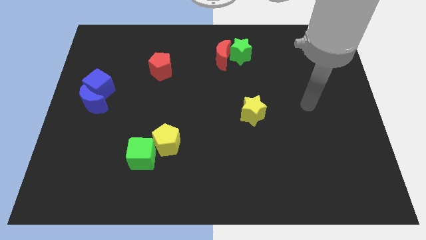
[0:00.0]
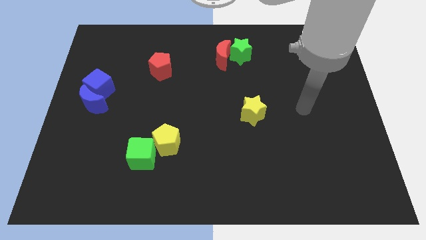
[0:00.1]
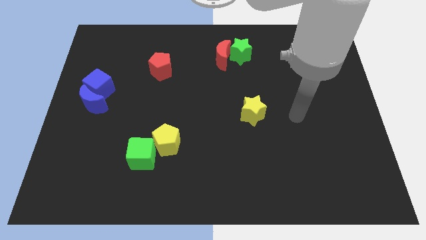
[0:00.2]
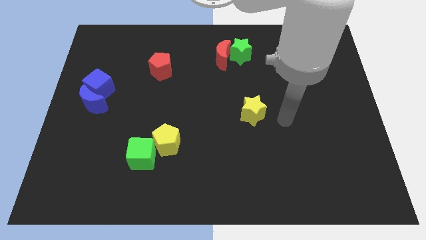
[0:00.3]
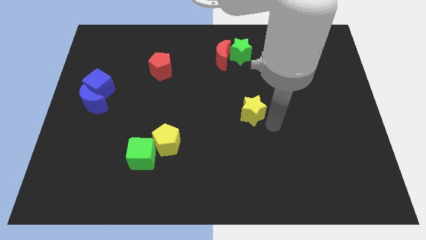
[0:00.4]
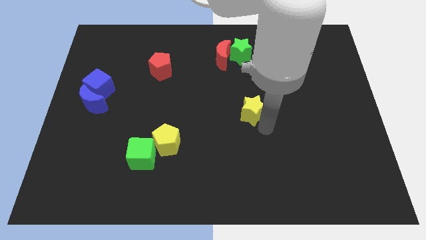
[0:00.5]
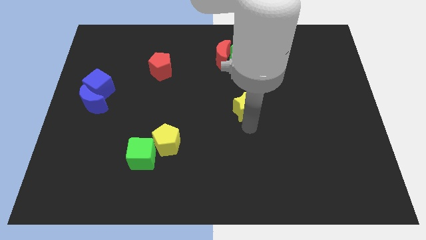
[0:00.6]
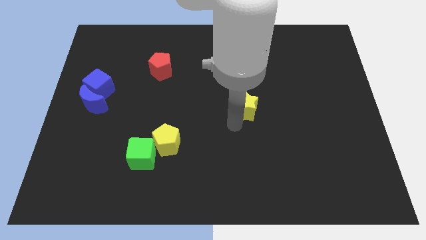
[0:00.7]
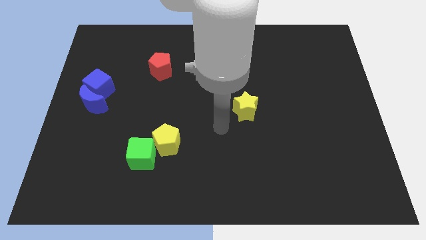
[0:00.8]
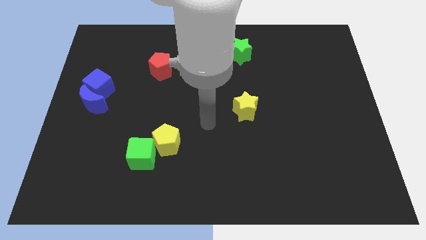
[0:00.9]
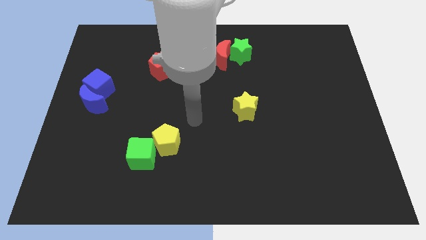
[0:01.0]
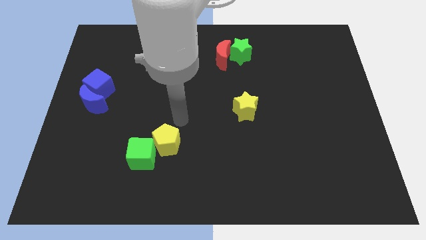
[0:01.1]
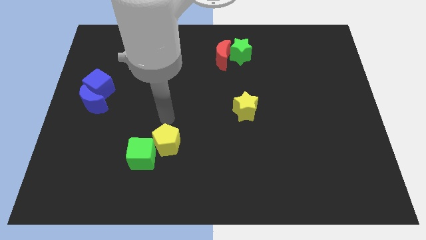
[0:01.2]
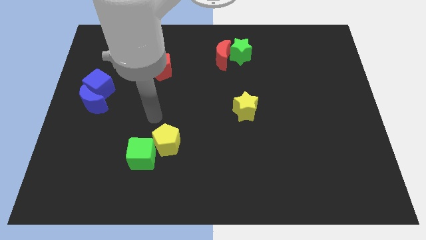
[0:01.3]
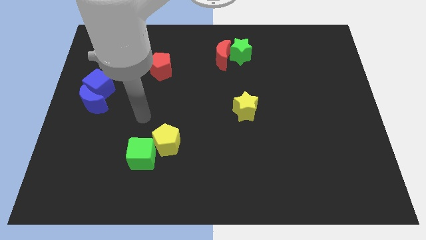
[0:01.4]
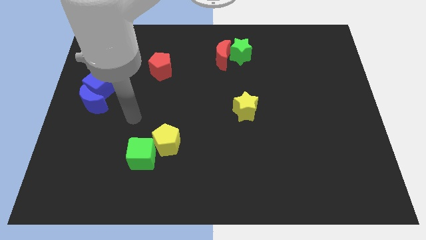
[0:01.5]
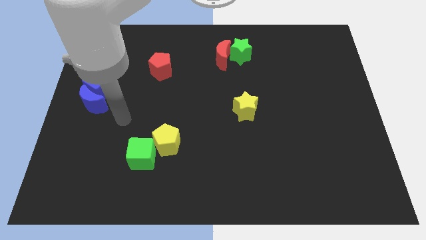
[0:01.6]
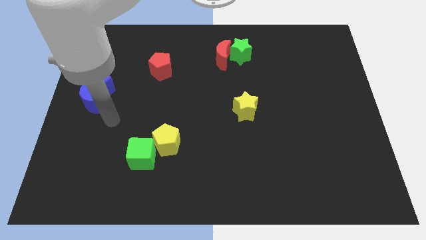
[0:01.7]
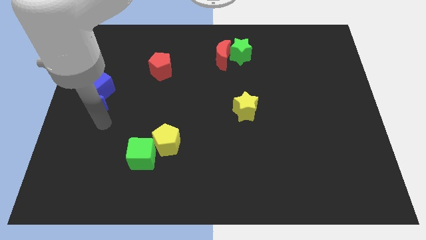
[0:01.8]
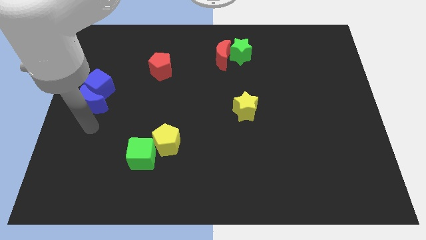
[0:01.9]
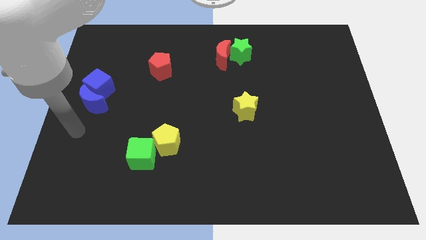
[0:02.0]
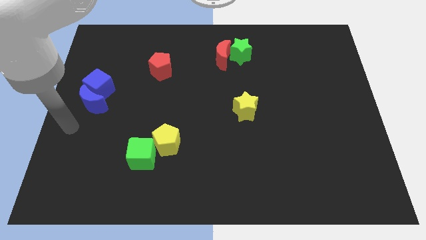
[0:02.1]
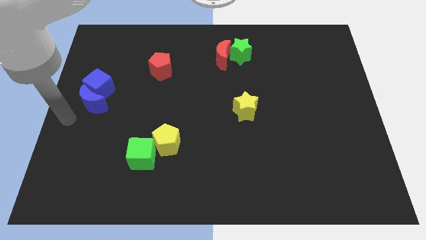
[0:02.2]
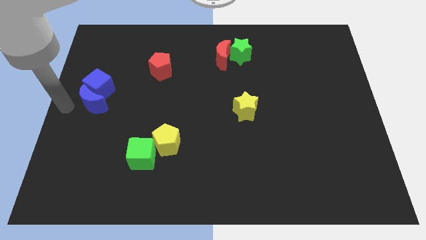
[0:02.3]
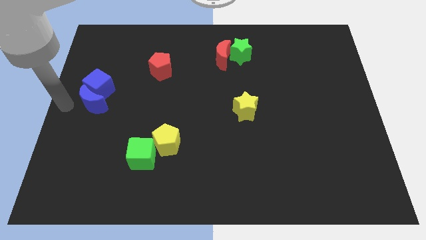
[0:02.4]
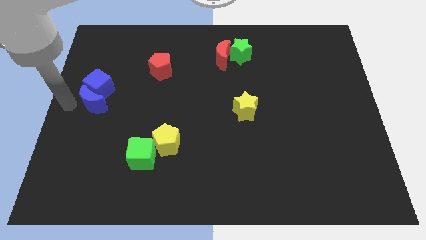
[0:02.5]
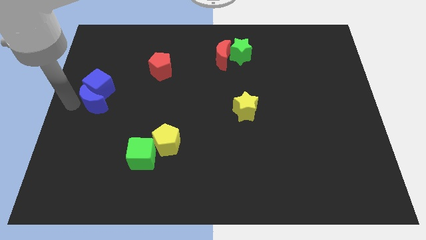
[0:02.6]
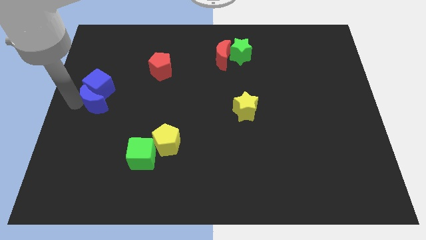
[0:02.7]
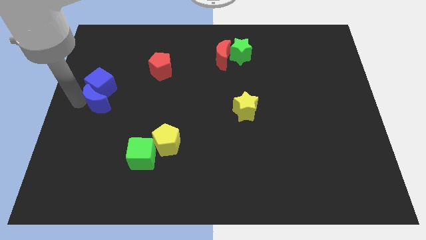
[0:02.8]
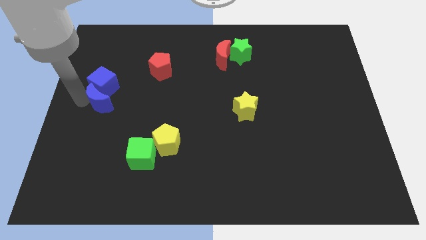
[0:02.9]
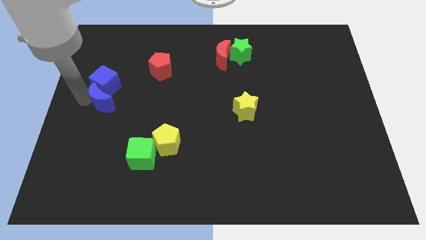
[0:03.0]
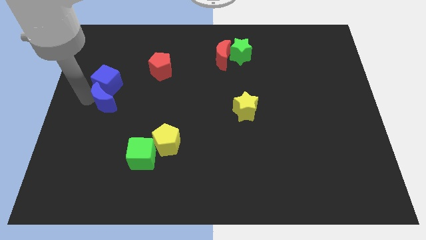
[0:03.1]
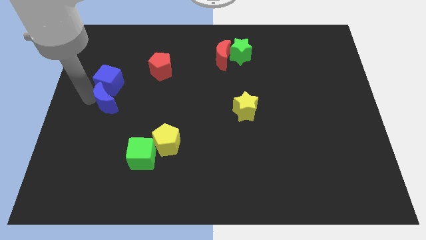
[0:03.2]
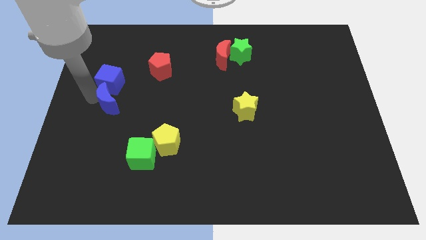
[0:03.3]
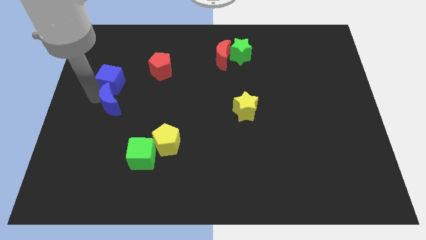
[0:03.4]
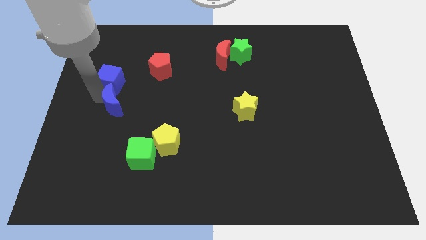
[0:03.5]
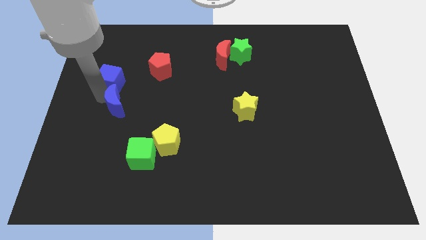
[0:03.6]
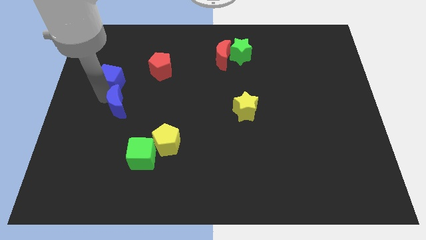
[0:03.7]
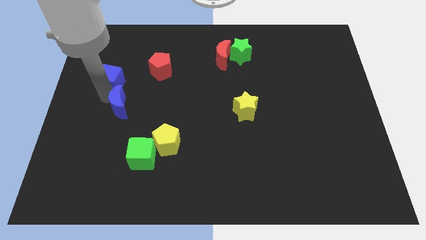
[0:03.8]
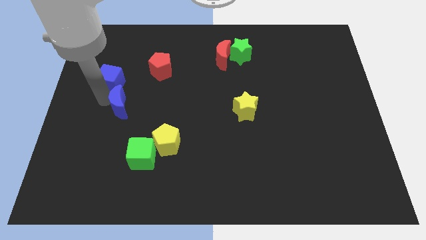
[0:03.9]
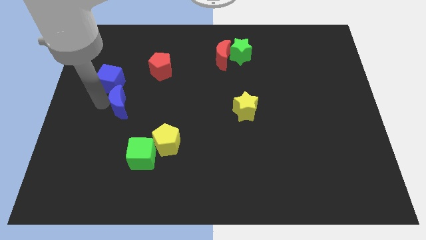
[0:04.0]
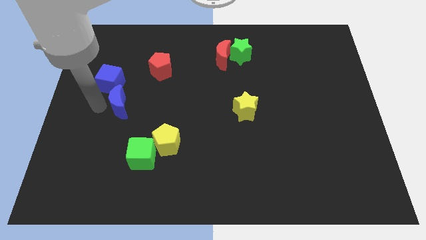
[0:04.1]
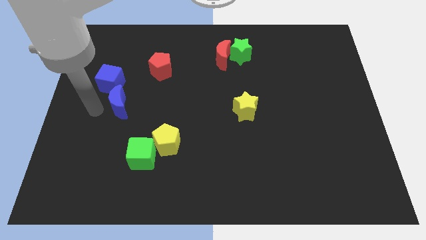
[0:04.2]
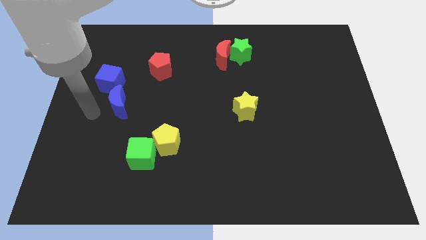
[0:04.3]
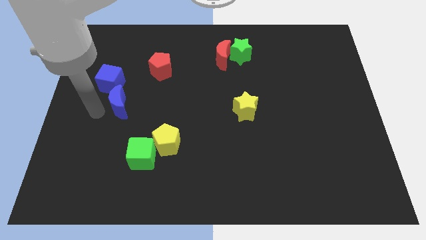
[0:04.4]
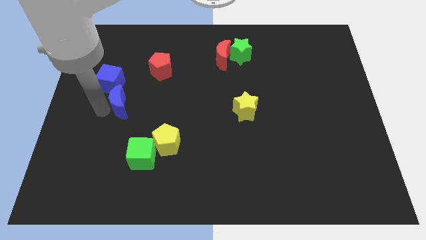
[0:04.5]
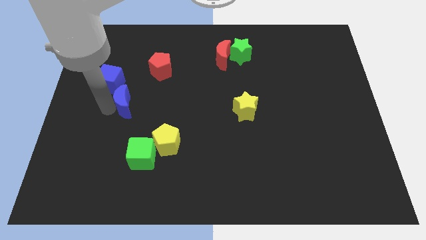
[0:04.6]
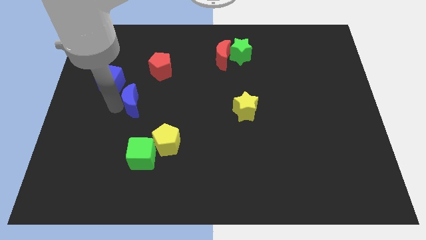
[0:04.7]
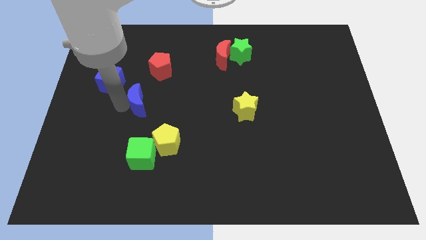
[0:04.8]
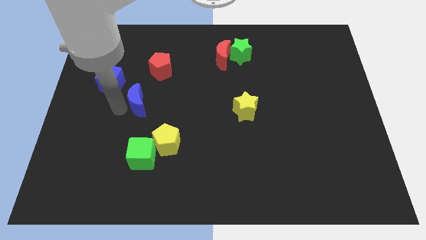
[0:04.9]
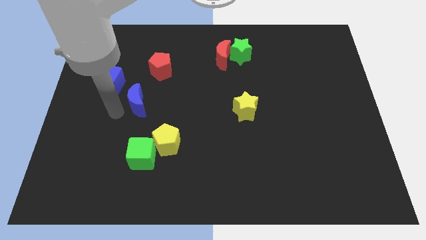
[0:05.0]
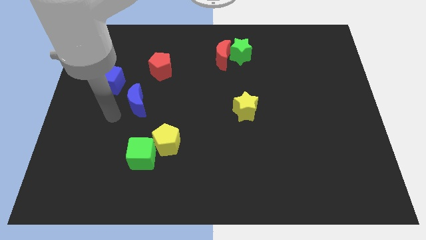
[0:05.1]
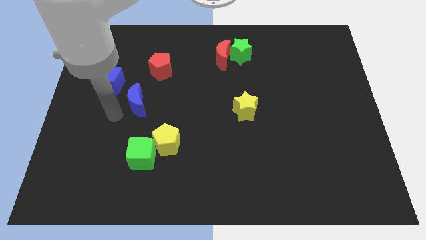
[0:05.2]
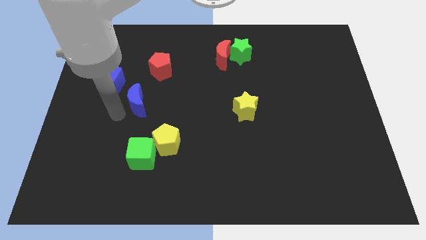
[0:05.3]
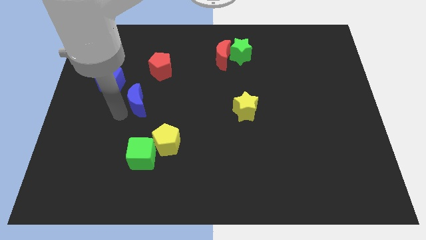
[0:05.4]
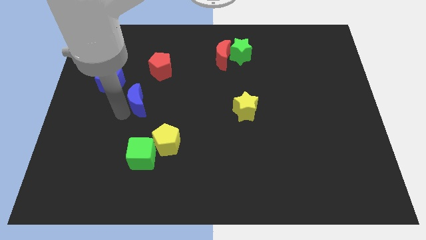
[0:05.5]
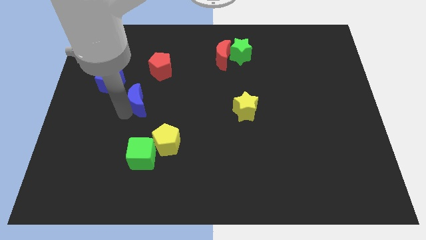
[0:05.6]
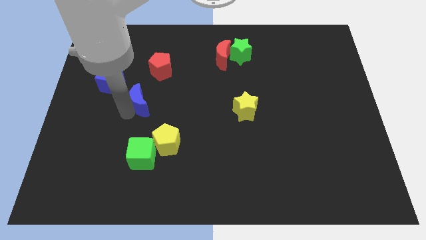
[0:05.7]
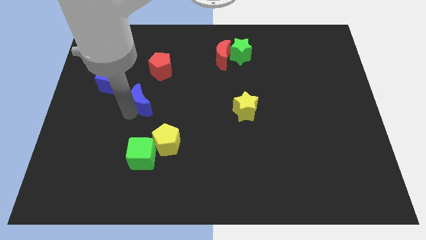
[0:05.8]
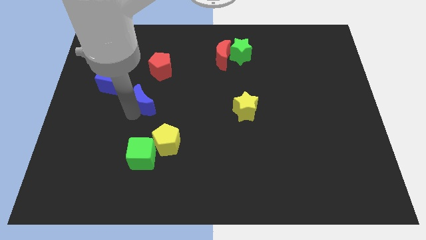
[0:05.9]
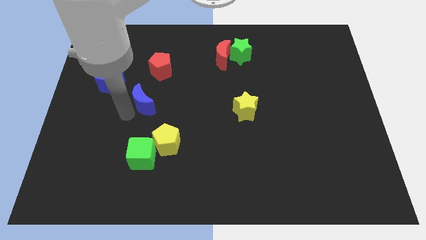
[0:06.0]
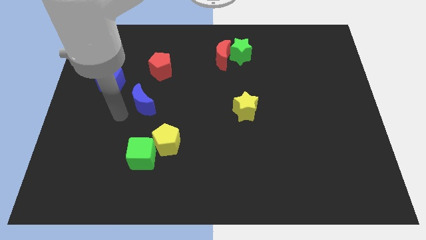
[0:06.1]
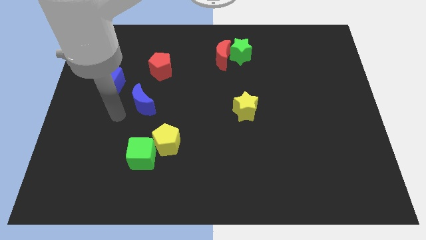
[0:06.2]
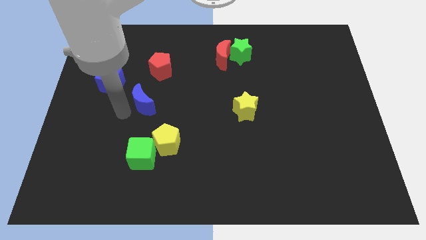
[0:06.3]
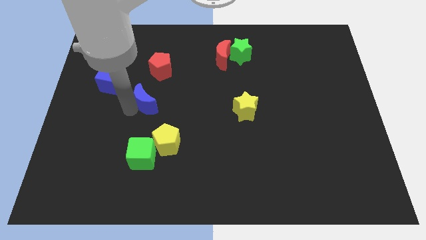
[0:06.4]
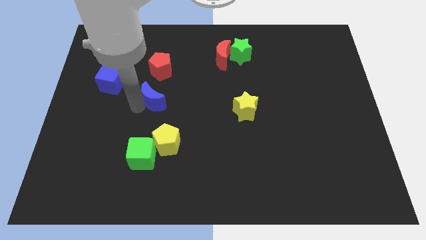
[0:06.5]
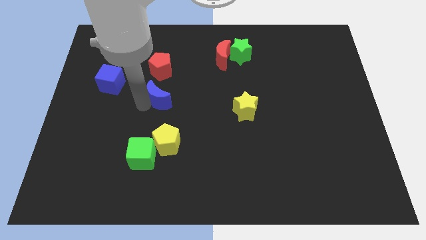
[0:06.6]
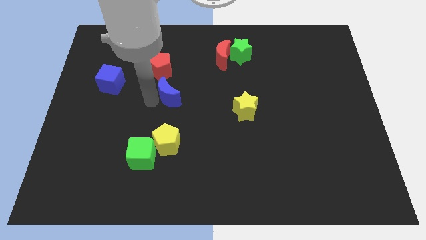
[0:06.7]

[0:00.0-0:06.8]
move the blue moon to the center

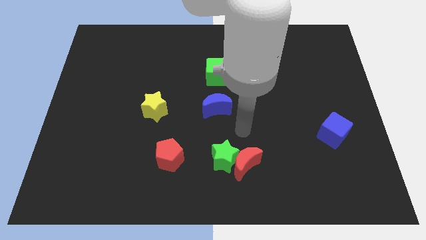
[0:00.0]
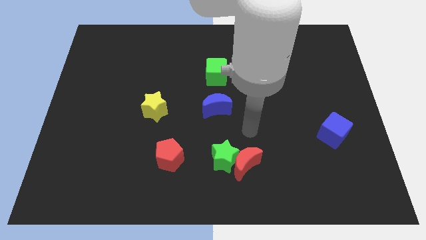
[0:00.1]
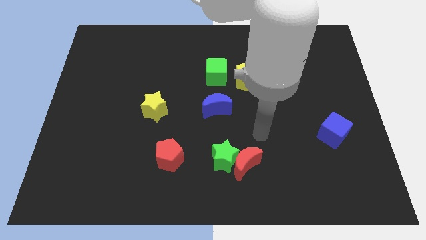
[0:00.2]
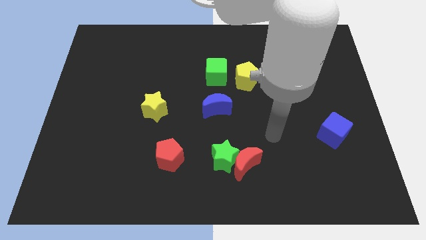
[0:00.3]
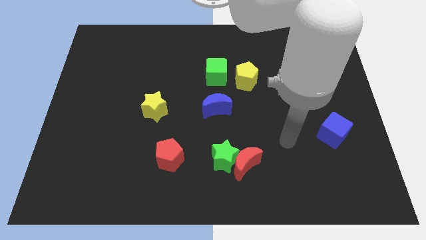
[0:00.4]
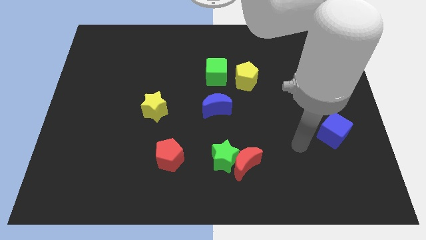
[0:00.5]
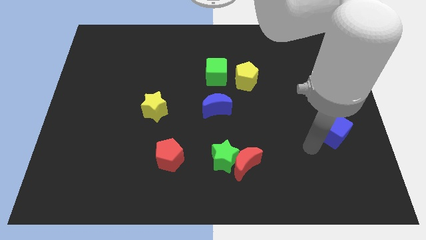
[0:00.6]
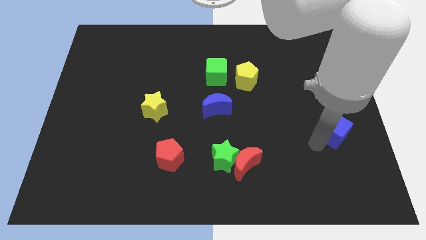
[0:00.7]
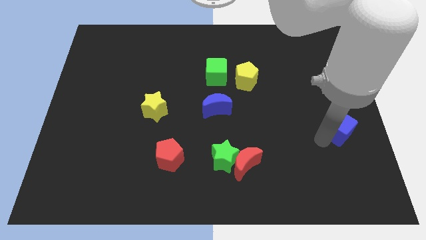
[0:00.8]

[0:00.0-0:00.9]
slide the blue cube to the center right
